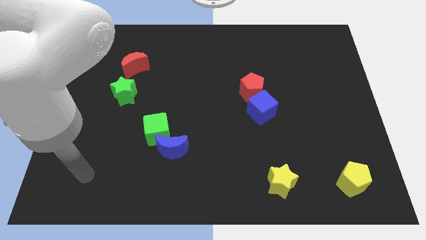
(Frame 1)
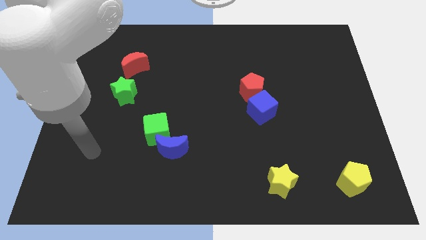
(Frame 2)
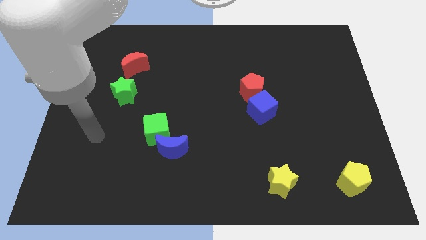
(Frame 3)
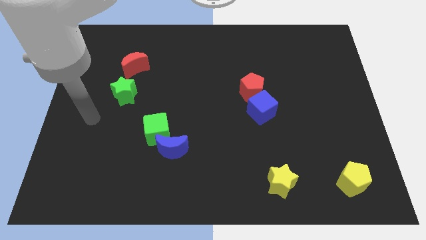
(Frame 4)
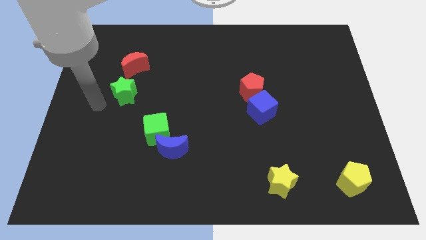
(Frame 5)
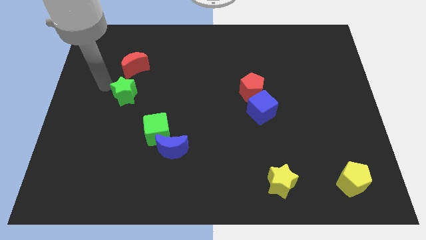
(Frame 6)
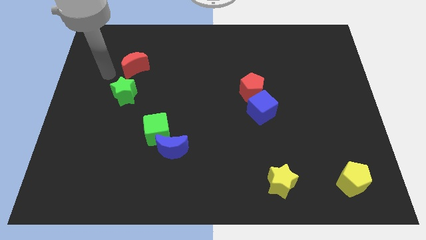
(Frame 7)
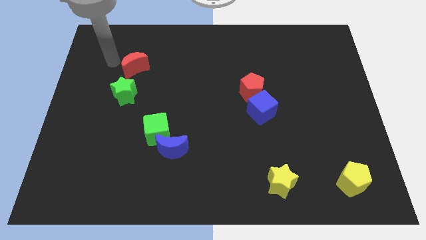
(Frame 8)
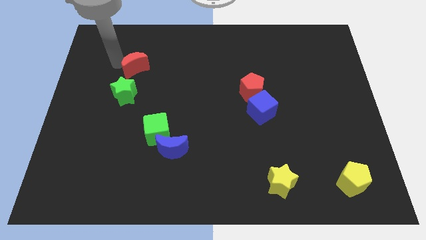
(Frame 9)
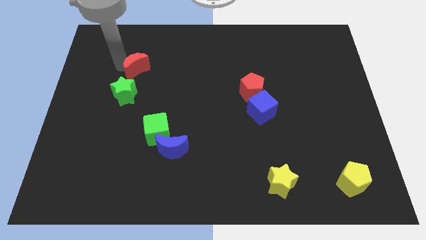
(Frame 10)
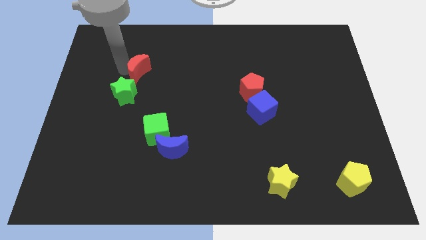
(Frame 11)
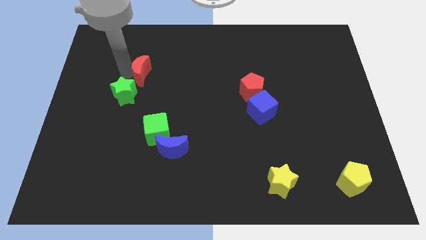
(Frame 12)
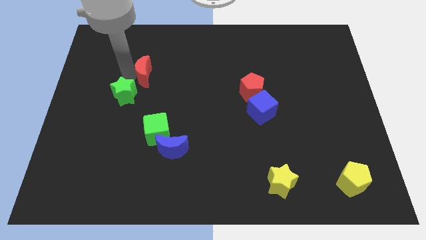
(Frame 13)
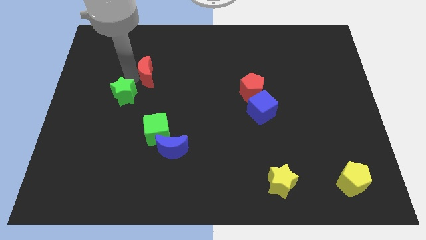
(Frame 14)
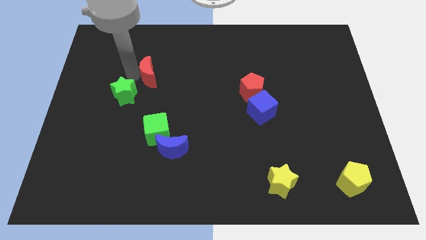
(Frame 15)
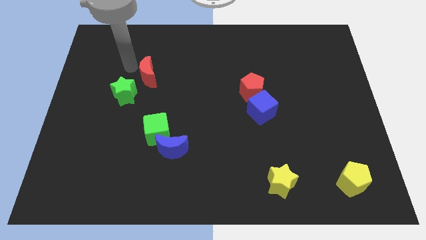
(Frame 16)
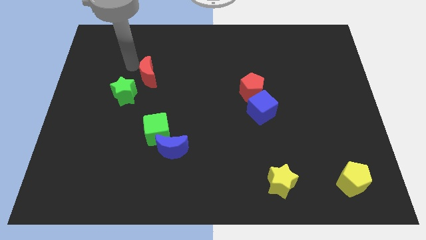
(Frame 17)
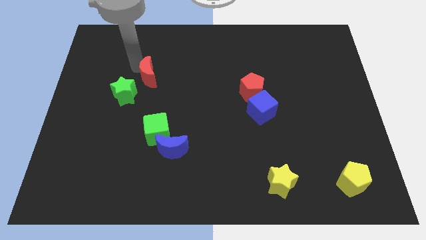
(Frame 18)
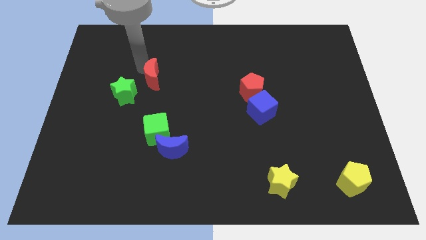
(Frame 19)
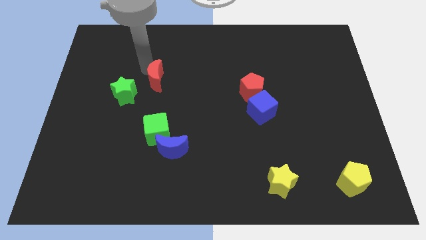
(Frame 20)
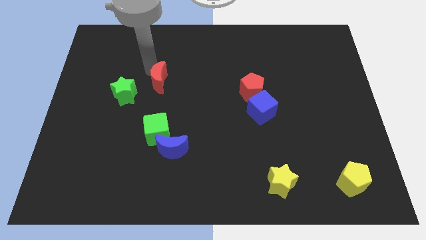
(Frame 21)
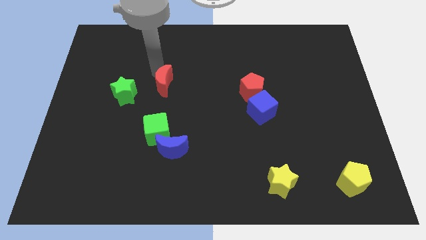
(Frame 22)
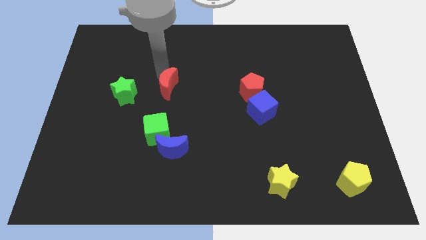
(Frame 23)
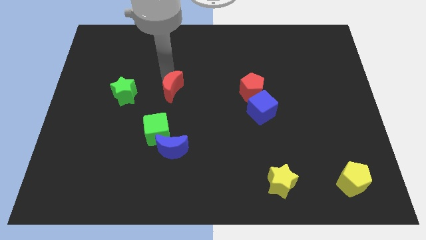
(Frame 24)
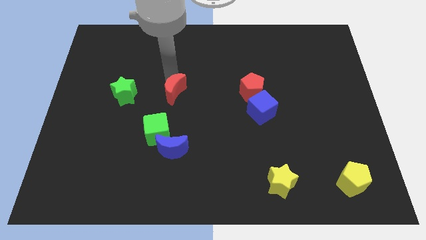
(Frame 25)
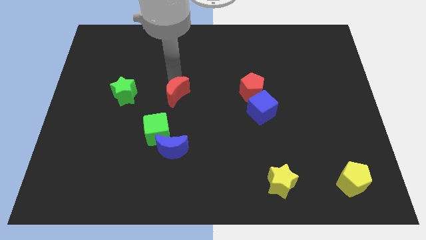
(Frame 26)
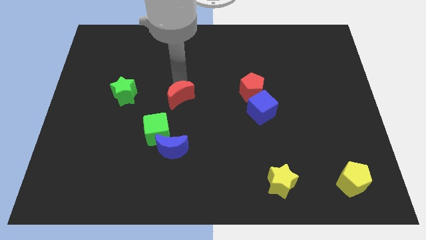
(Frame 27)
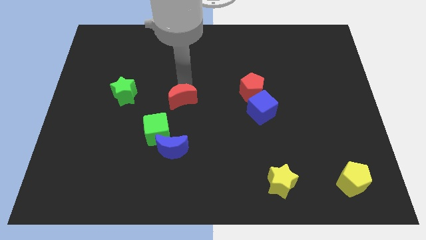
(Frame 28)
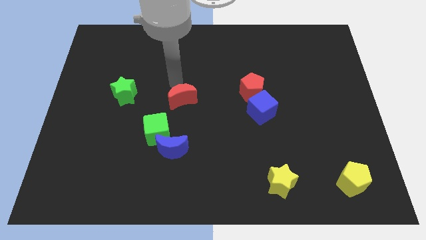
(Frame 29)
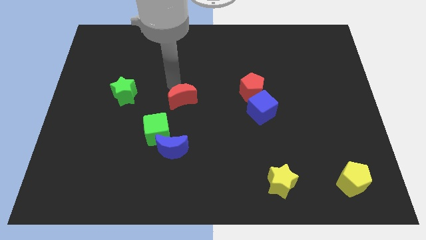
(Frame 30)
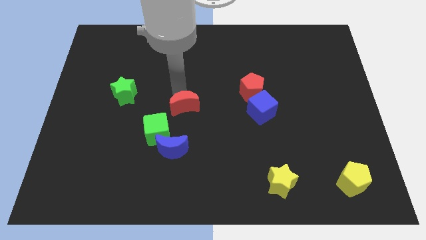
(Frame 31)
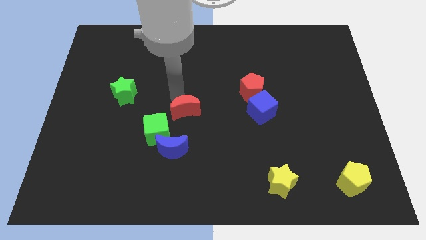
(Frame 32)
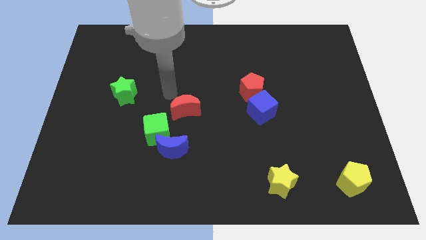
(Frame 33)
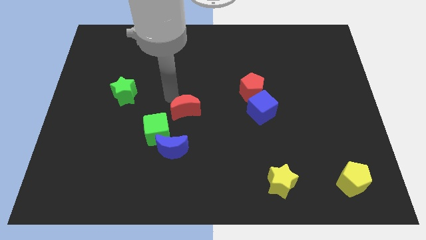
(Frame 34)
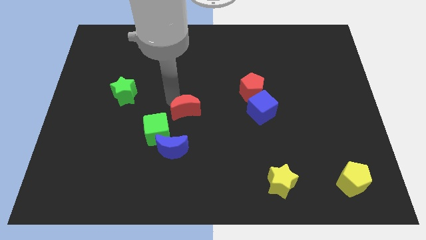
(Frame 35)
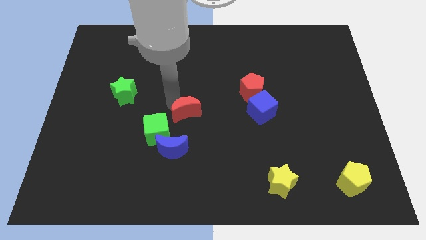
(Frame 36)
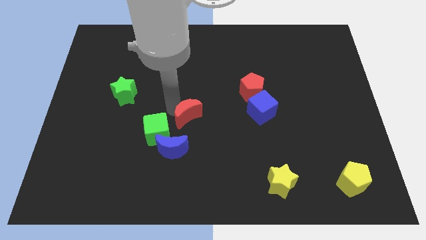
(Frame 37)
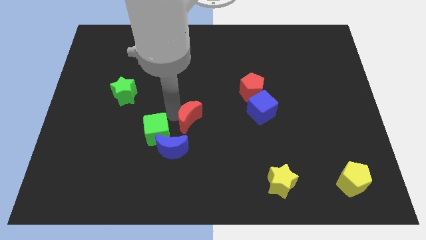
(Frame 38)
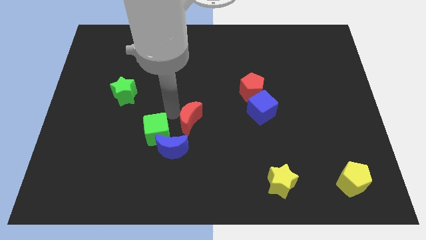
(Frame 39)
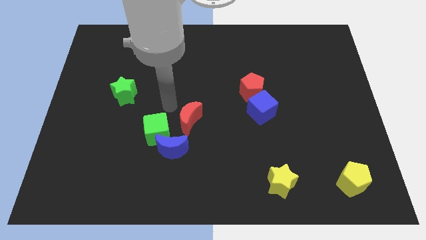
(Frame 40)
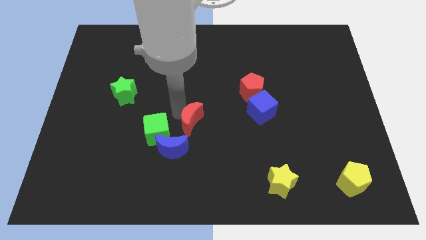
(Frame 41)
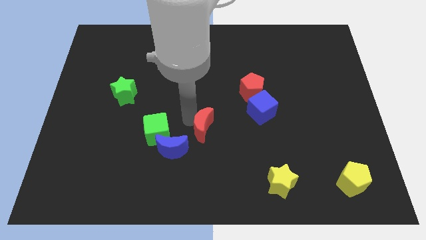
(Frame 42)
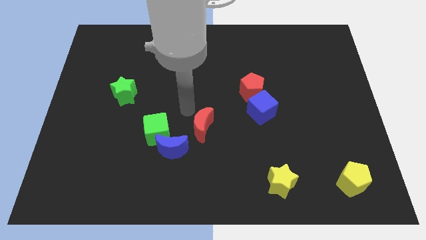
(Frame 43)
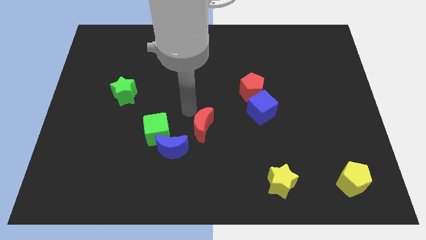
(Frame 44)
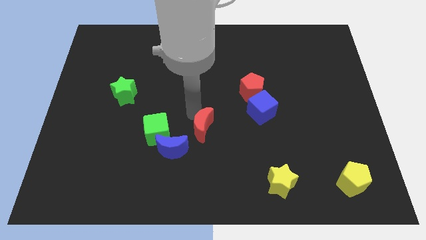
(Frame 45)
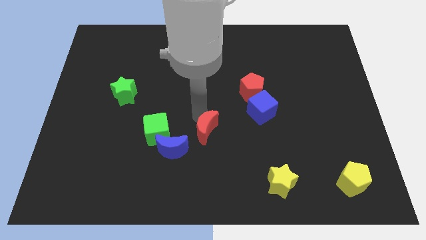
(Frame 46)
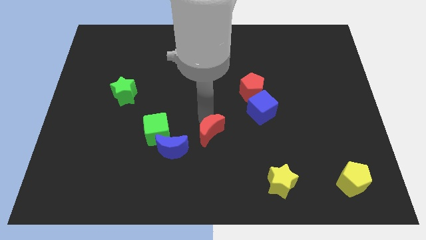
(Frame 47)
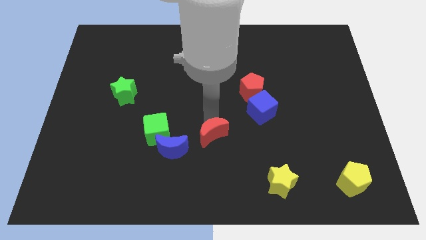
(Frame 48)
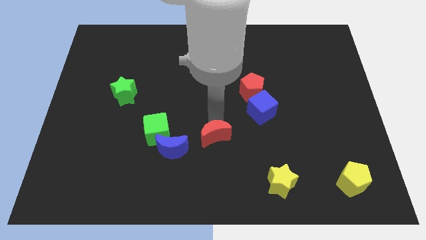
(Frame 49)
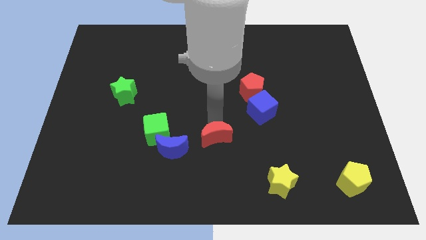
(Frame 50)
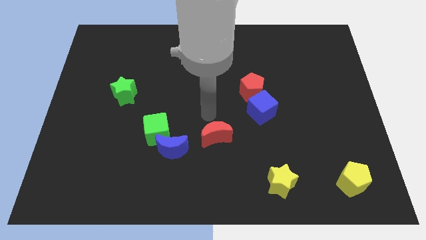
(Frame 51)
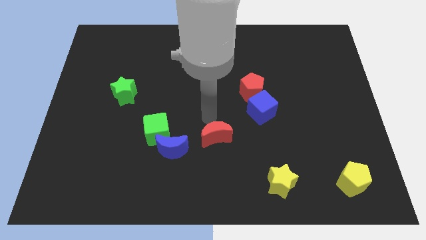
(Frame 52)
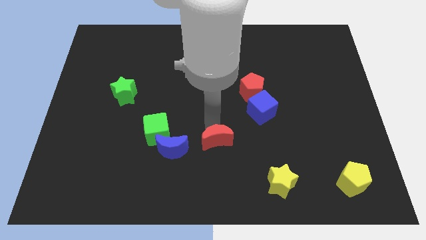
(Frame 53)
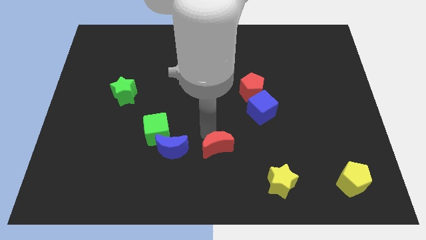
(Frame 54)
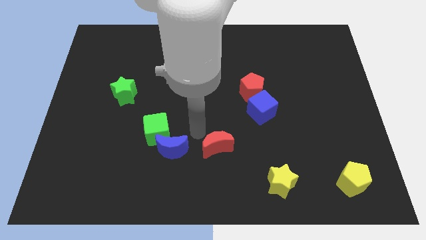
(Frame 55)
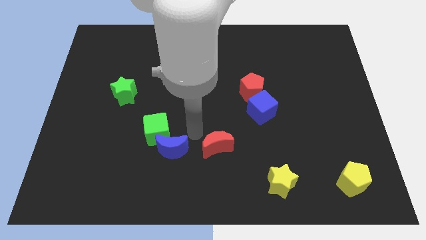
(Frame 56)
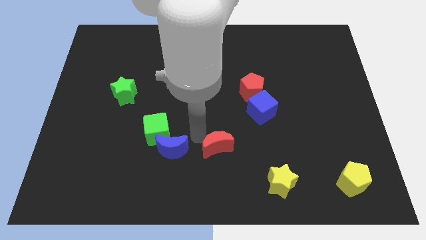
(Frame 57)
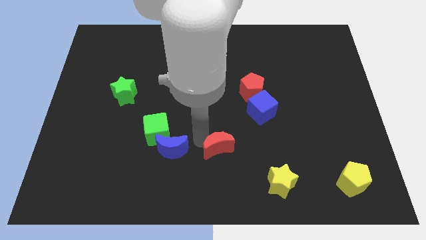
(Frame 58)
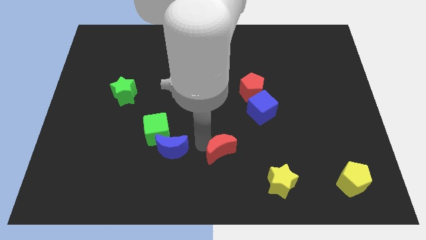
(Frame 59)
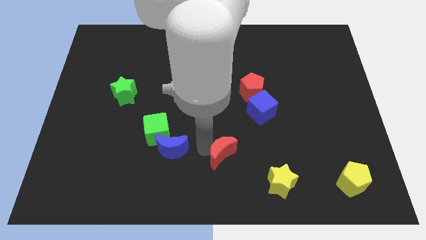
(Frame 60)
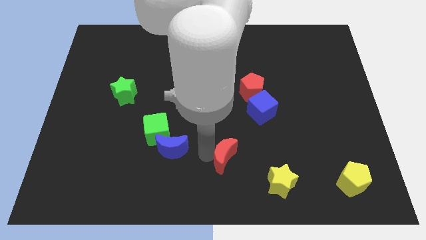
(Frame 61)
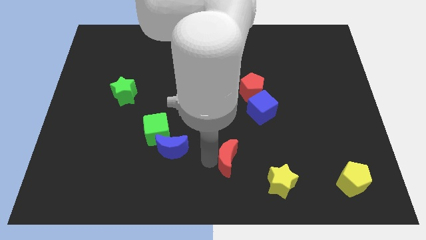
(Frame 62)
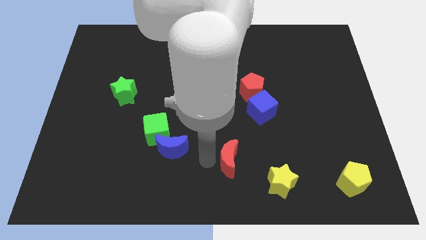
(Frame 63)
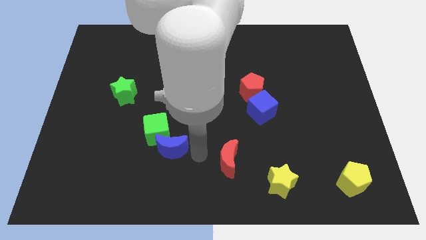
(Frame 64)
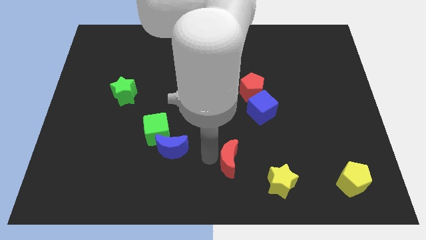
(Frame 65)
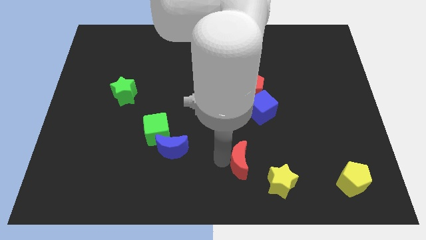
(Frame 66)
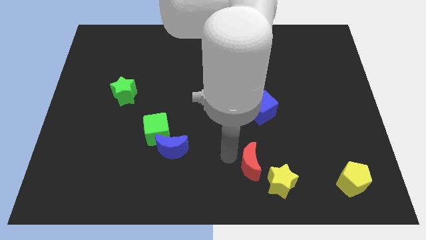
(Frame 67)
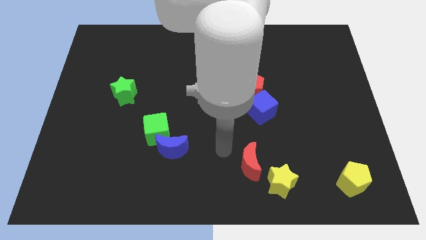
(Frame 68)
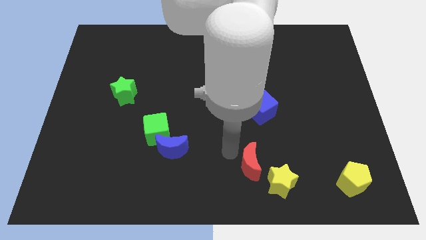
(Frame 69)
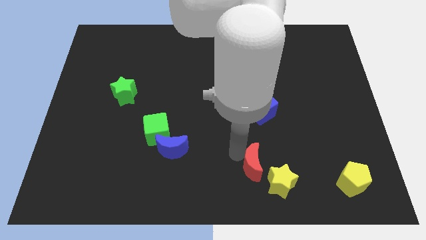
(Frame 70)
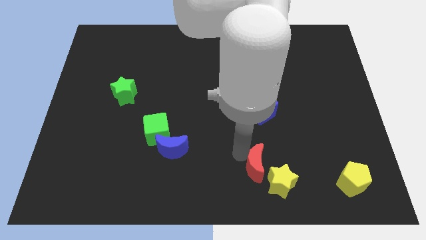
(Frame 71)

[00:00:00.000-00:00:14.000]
move the red moon next to the yellow star
